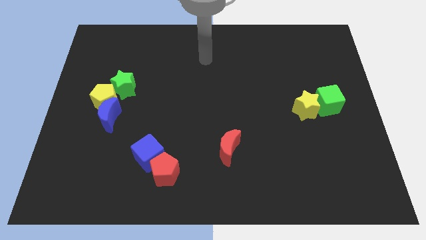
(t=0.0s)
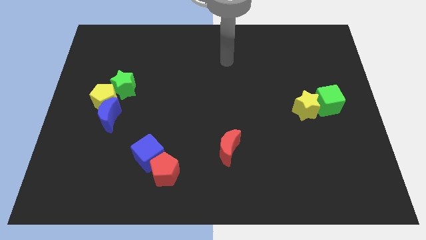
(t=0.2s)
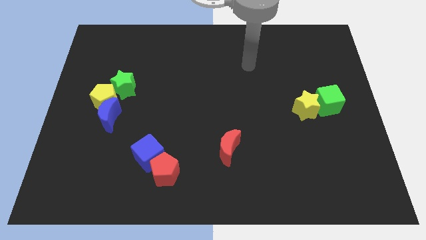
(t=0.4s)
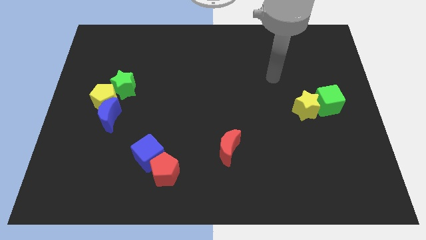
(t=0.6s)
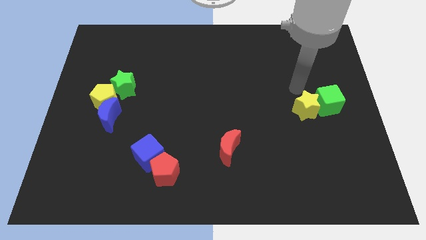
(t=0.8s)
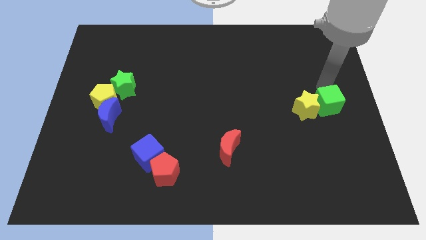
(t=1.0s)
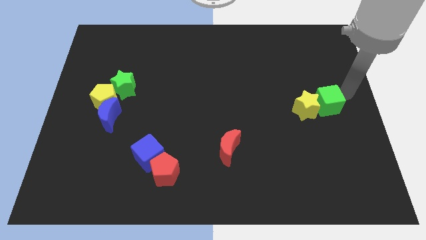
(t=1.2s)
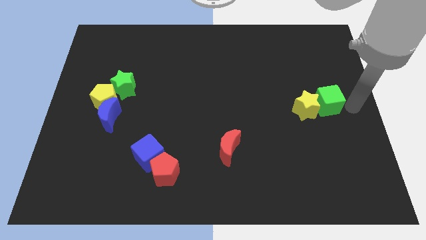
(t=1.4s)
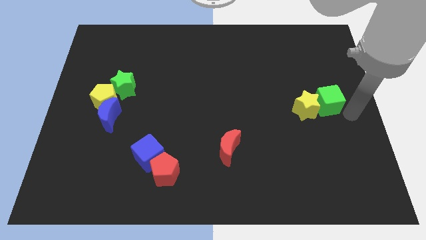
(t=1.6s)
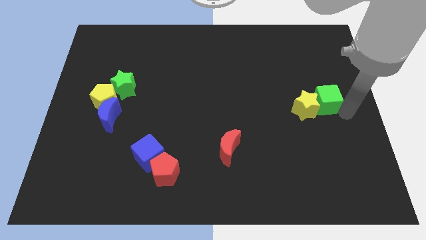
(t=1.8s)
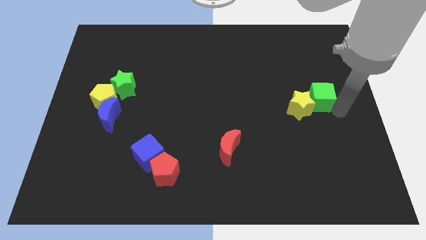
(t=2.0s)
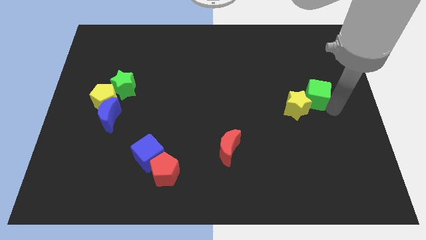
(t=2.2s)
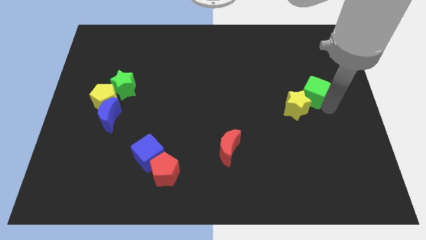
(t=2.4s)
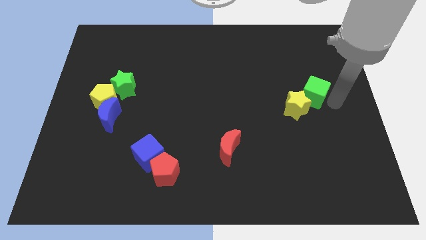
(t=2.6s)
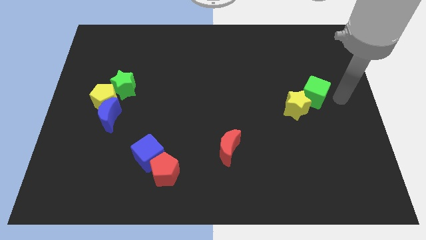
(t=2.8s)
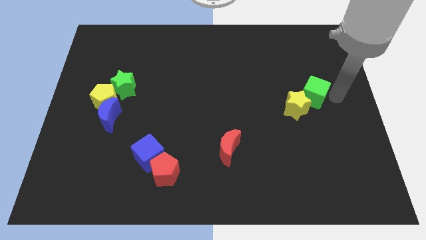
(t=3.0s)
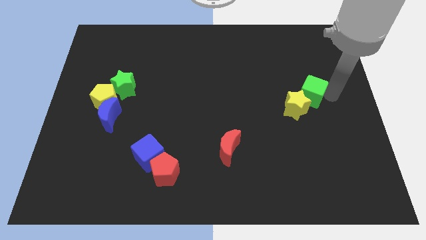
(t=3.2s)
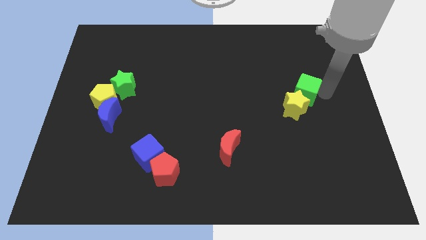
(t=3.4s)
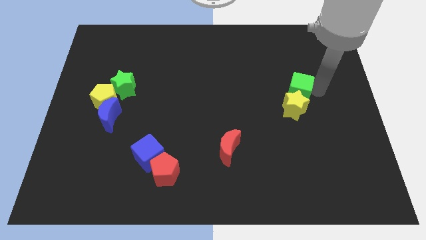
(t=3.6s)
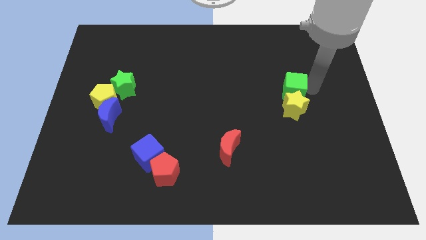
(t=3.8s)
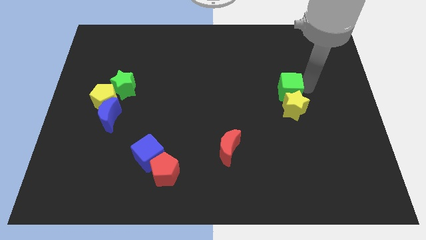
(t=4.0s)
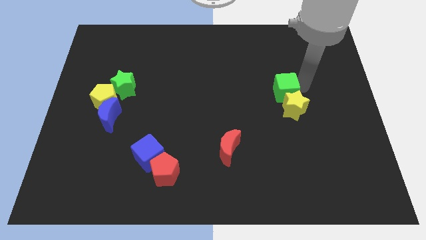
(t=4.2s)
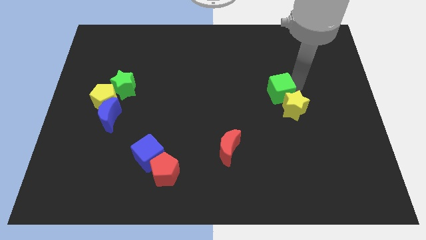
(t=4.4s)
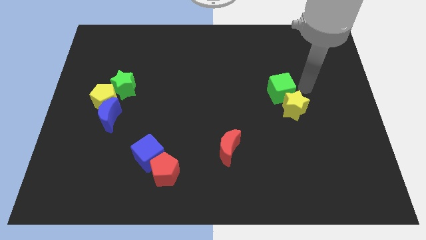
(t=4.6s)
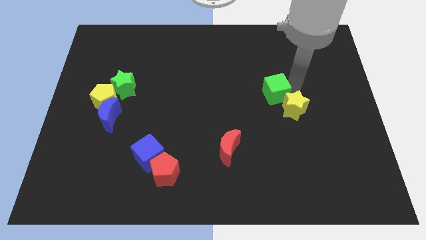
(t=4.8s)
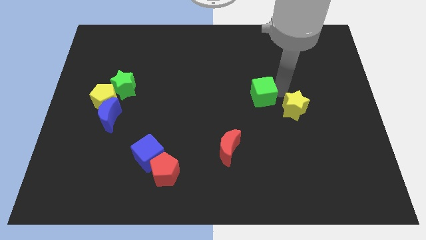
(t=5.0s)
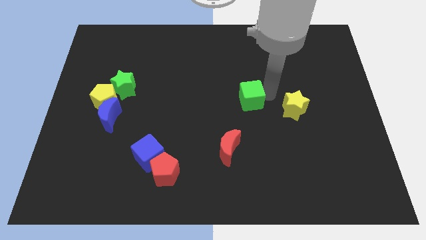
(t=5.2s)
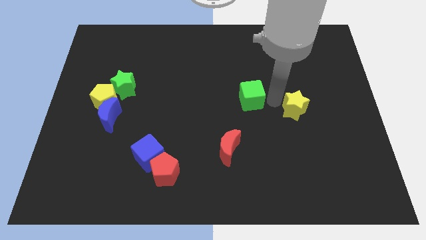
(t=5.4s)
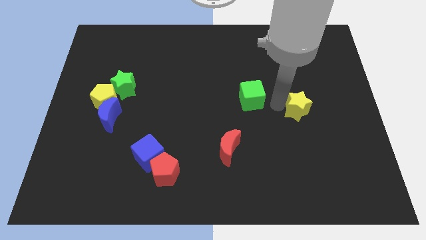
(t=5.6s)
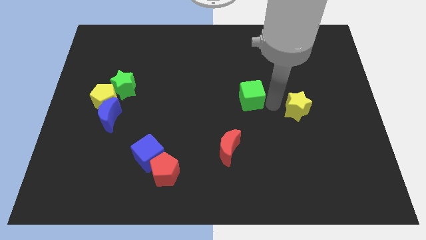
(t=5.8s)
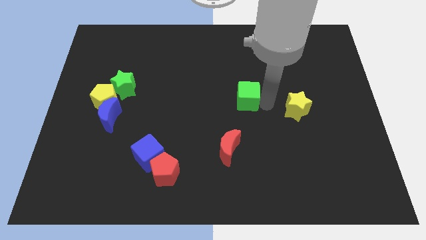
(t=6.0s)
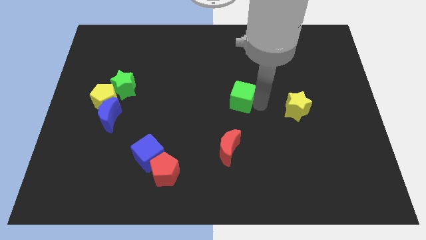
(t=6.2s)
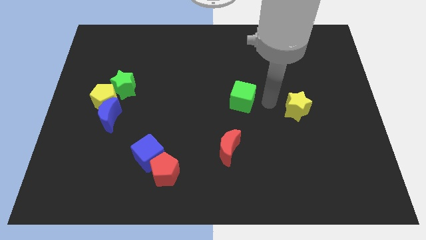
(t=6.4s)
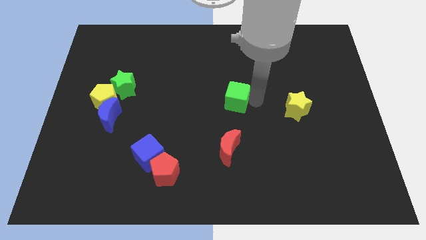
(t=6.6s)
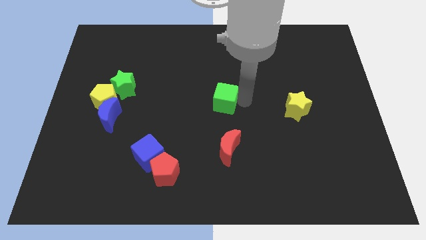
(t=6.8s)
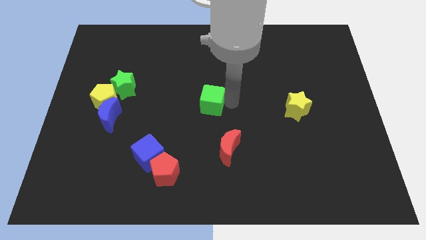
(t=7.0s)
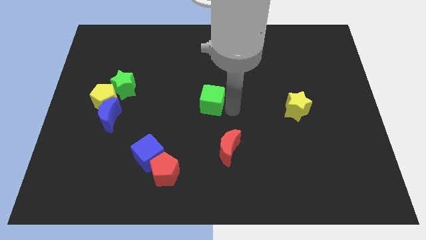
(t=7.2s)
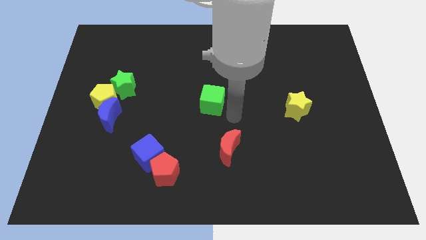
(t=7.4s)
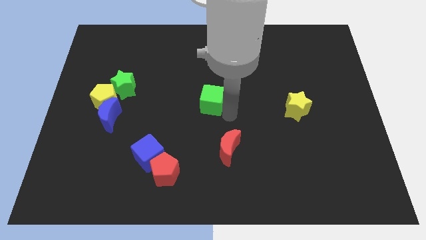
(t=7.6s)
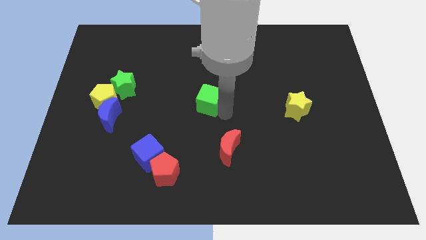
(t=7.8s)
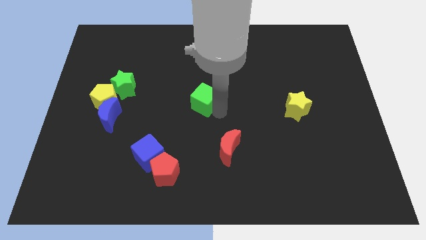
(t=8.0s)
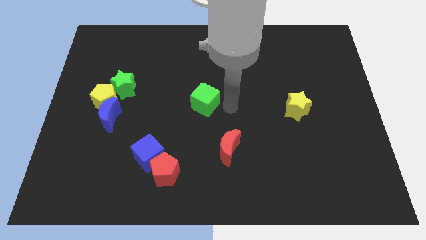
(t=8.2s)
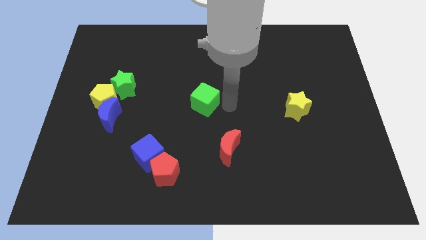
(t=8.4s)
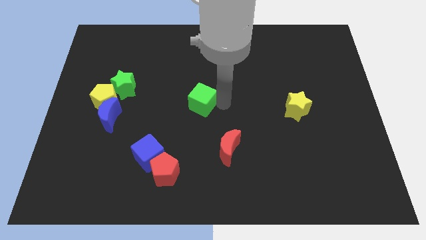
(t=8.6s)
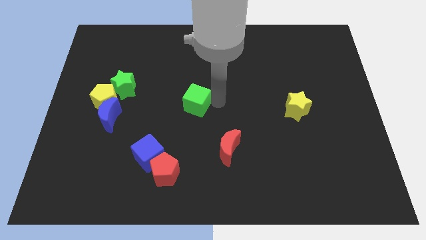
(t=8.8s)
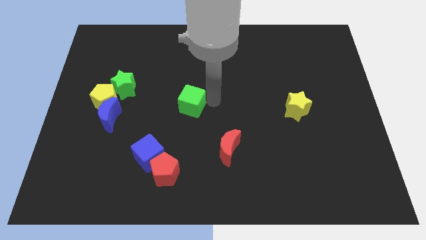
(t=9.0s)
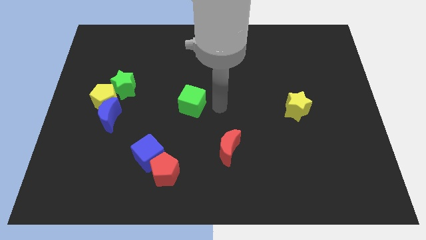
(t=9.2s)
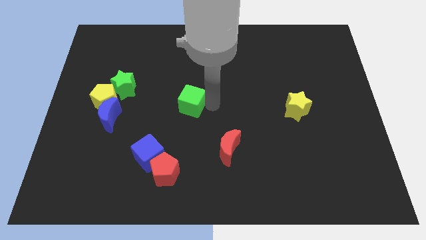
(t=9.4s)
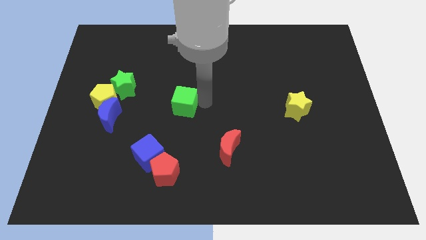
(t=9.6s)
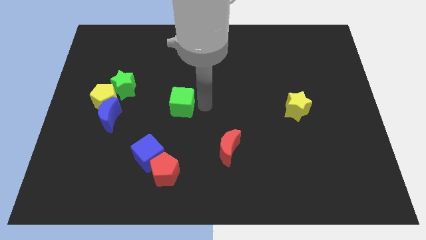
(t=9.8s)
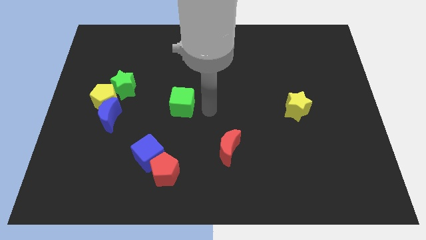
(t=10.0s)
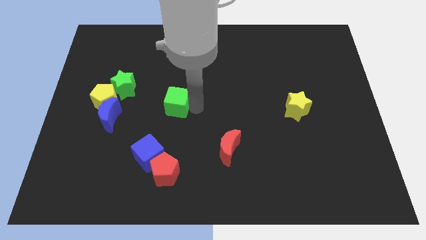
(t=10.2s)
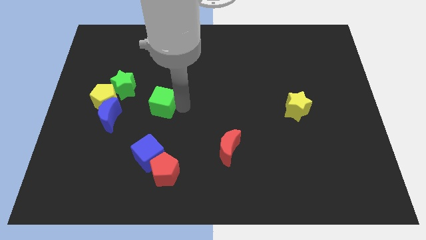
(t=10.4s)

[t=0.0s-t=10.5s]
put the green cube to the bottom right of the green star

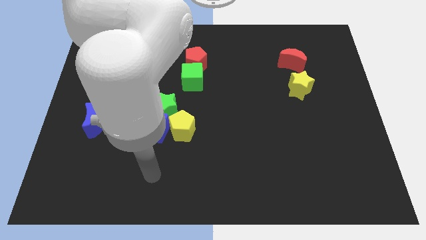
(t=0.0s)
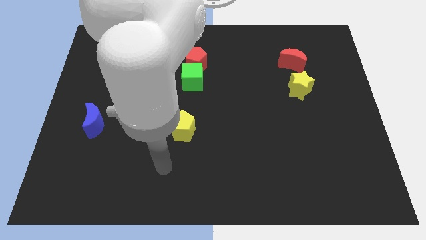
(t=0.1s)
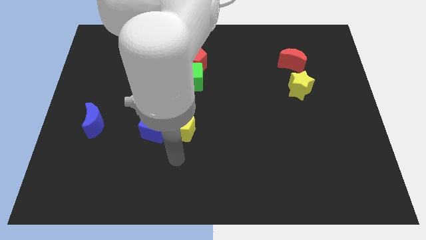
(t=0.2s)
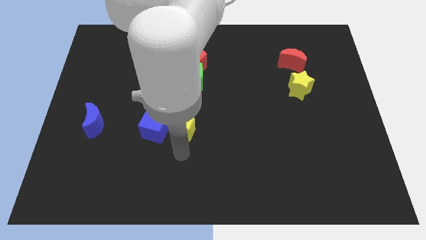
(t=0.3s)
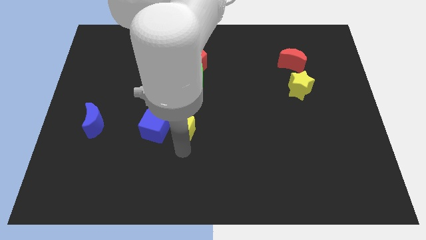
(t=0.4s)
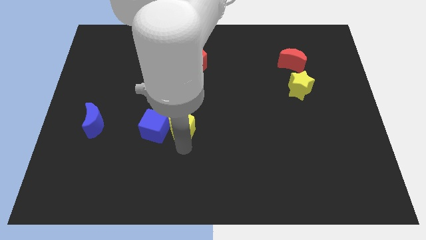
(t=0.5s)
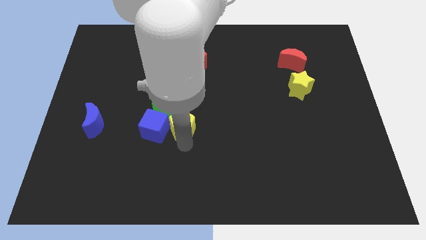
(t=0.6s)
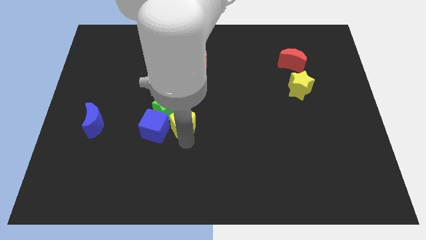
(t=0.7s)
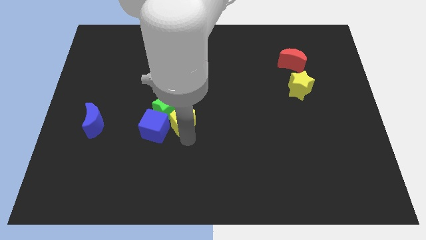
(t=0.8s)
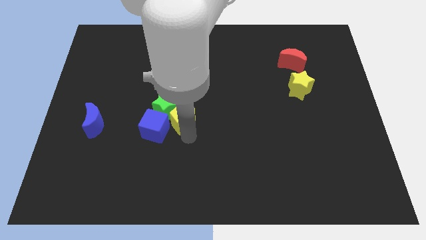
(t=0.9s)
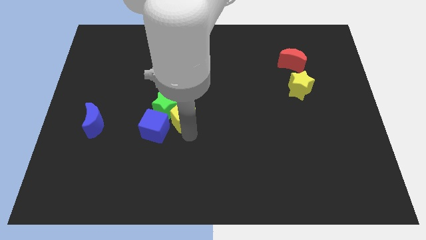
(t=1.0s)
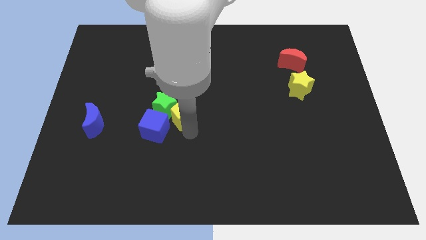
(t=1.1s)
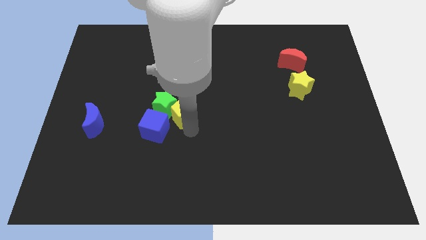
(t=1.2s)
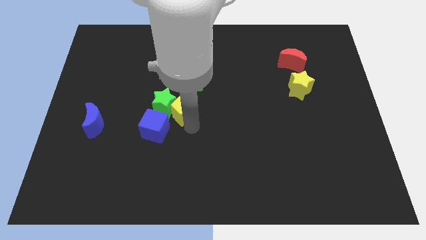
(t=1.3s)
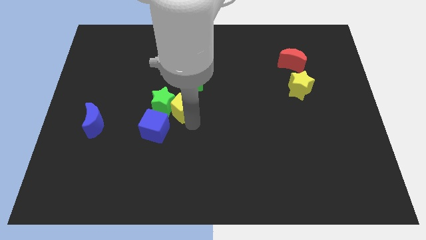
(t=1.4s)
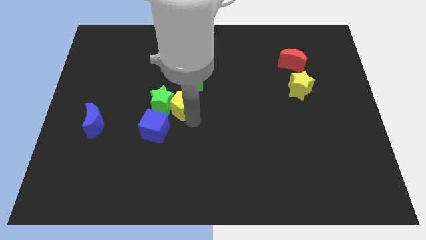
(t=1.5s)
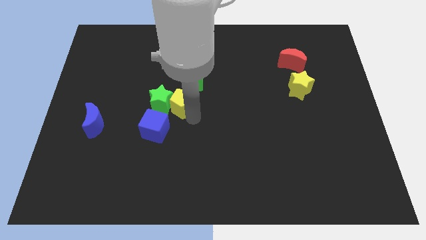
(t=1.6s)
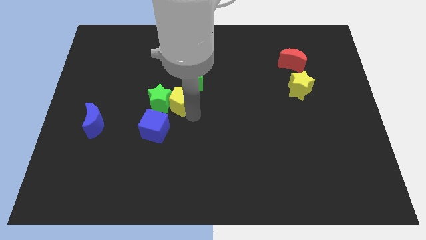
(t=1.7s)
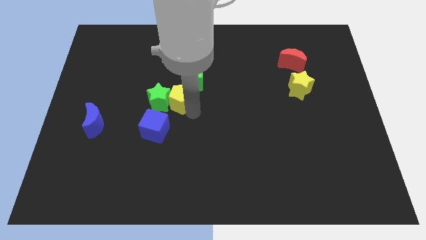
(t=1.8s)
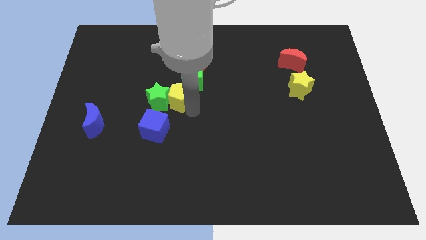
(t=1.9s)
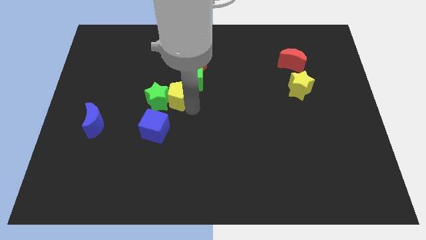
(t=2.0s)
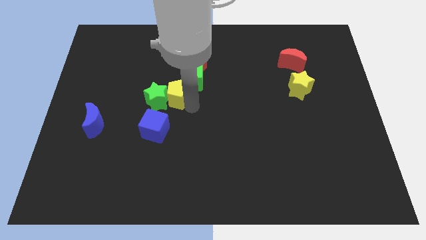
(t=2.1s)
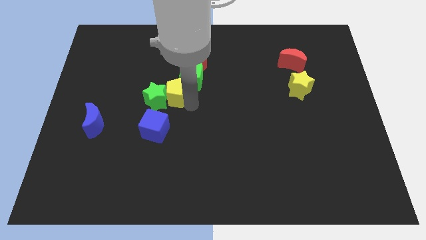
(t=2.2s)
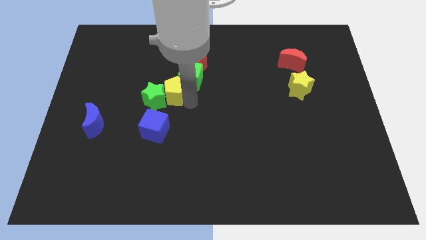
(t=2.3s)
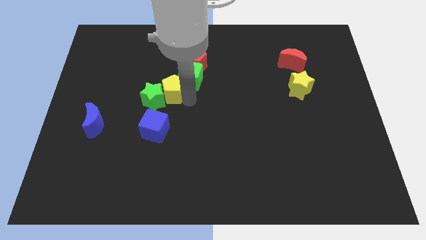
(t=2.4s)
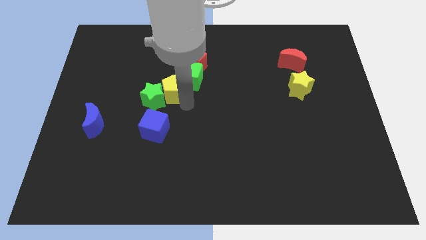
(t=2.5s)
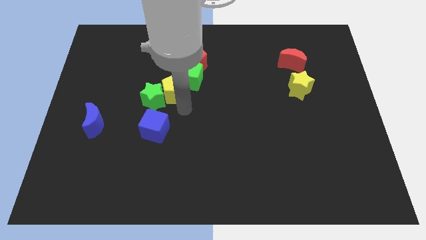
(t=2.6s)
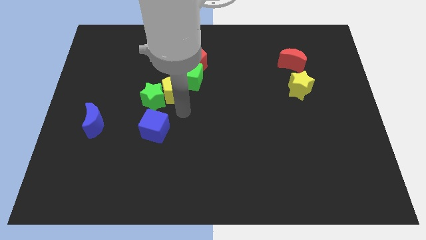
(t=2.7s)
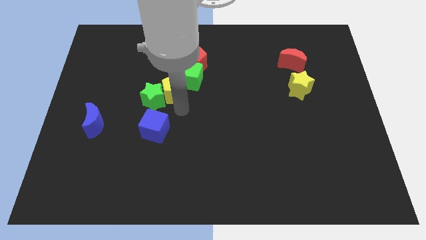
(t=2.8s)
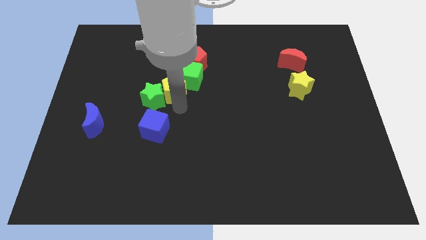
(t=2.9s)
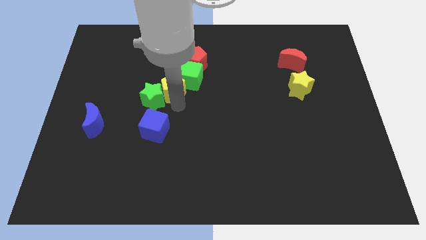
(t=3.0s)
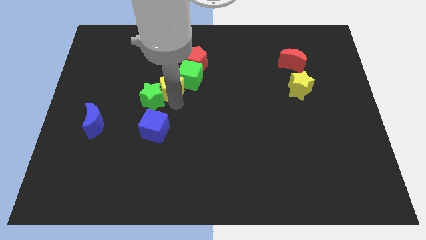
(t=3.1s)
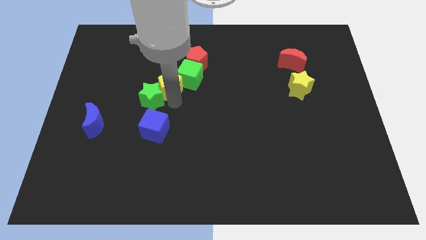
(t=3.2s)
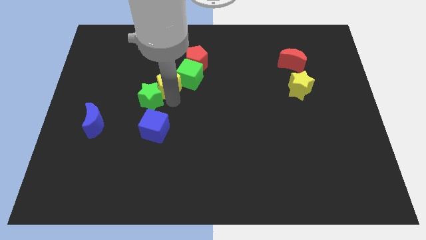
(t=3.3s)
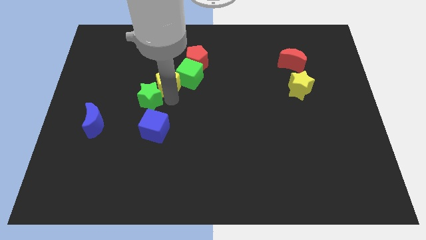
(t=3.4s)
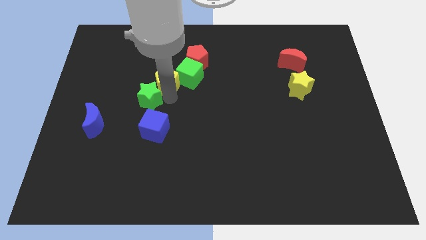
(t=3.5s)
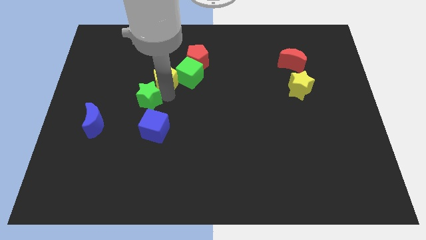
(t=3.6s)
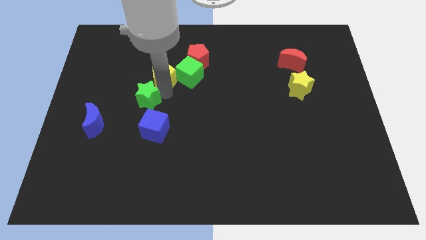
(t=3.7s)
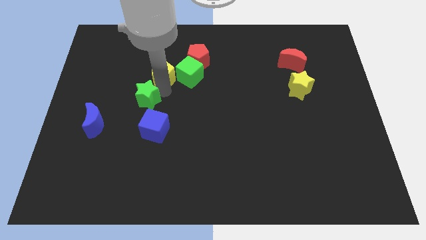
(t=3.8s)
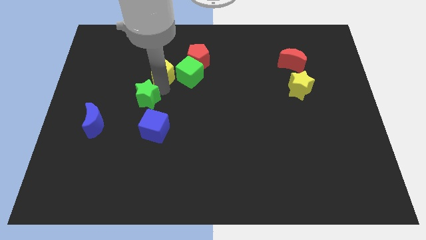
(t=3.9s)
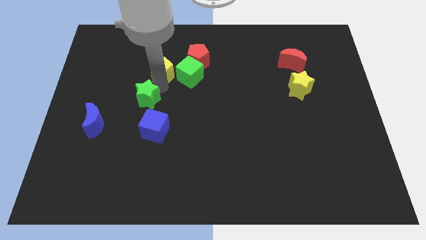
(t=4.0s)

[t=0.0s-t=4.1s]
put the yellow pentagon to the left side of the red pentagon
